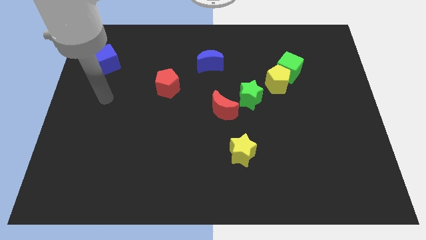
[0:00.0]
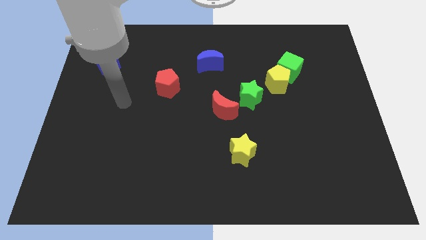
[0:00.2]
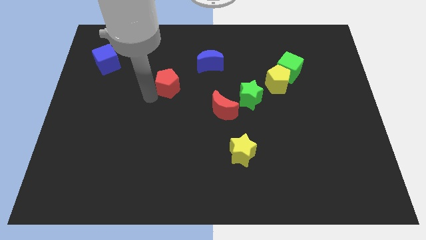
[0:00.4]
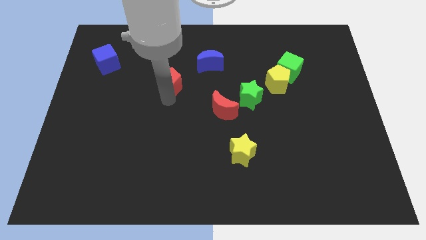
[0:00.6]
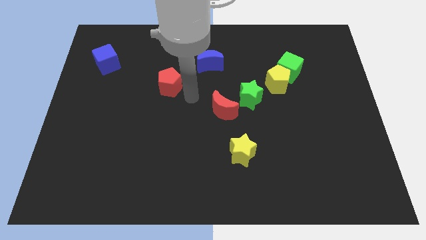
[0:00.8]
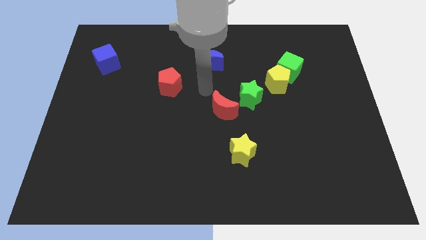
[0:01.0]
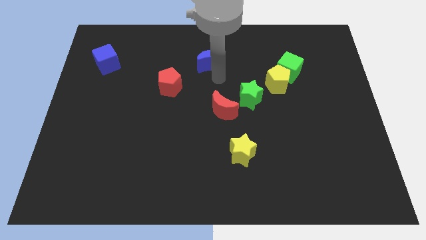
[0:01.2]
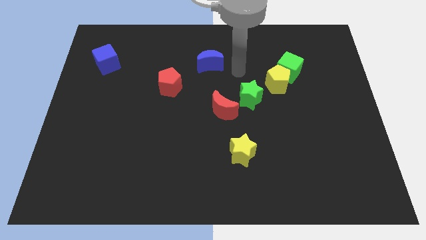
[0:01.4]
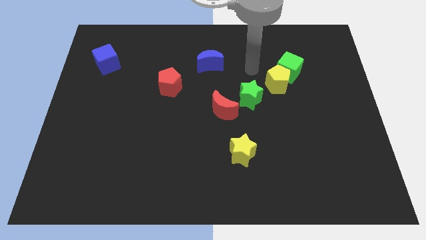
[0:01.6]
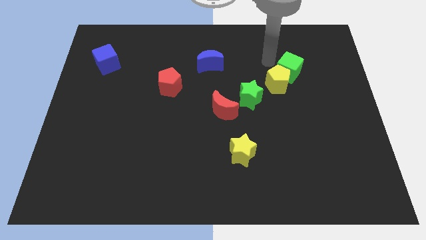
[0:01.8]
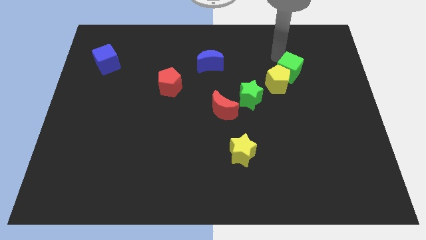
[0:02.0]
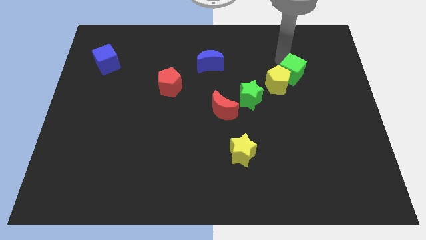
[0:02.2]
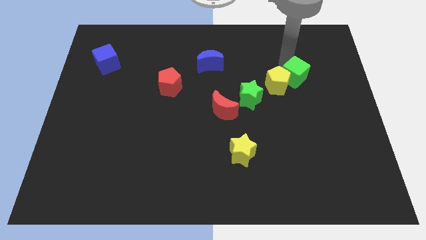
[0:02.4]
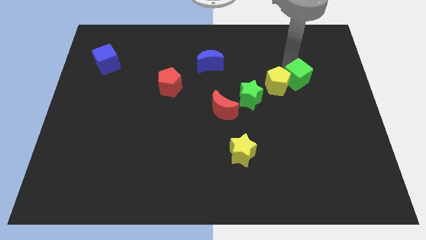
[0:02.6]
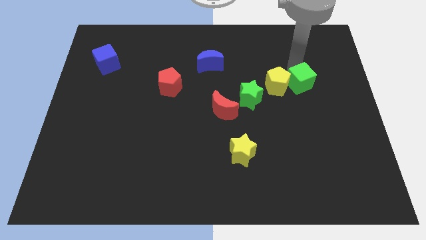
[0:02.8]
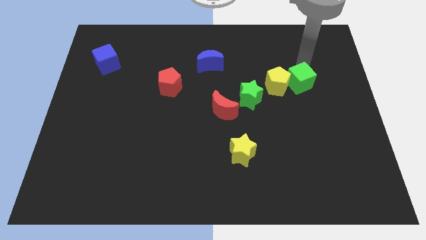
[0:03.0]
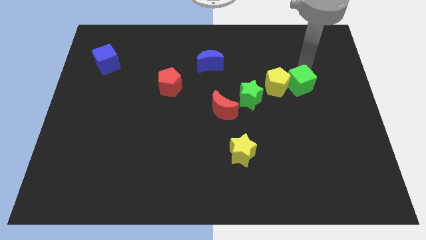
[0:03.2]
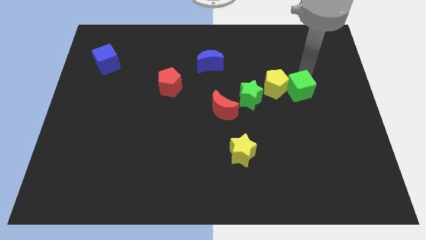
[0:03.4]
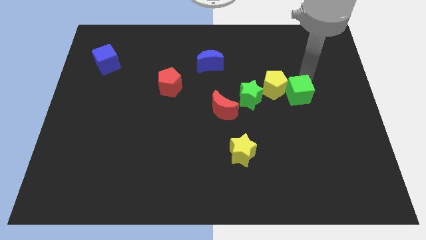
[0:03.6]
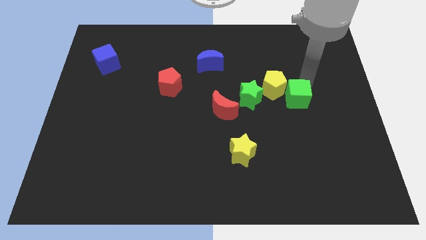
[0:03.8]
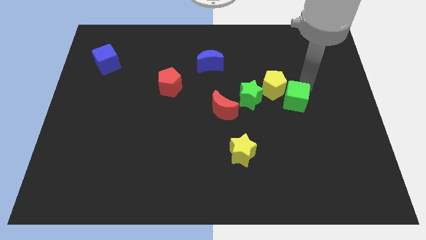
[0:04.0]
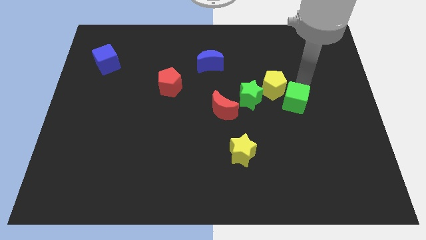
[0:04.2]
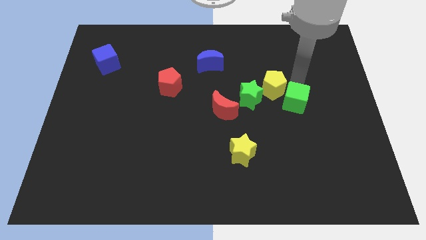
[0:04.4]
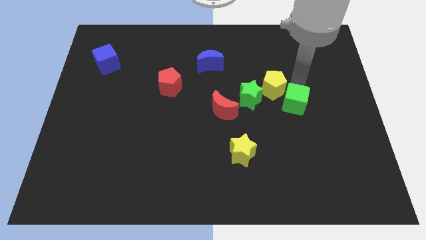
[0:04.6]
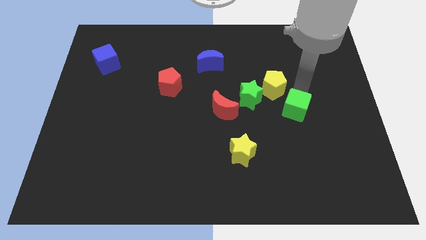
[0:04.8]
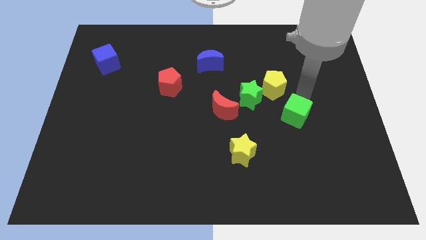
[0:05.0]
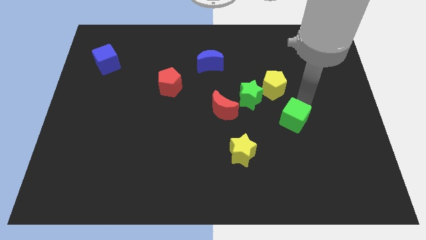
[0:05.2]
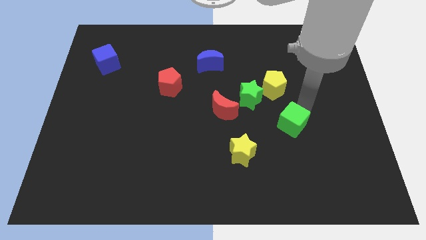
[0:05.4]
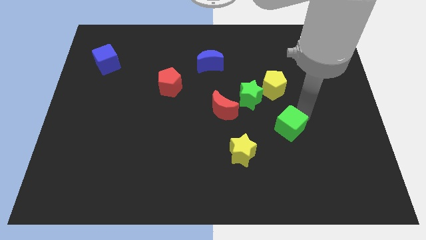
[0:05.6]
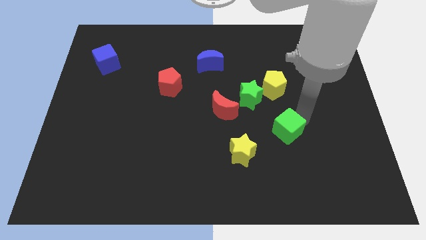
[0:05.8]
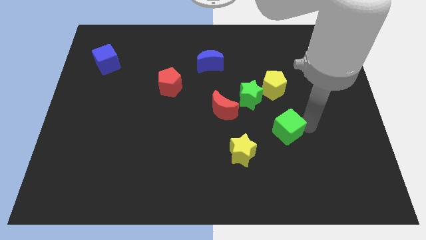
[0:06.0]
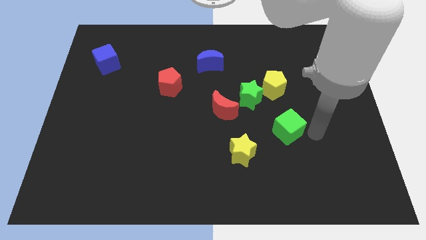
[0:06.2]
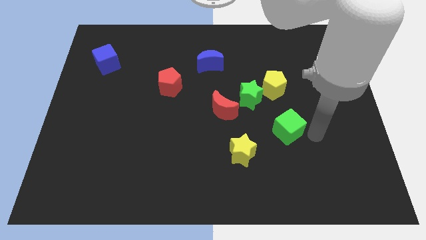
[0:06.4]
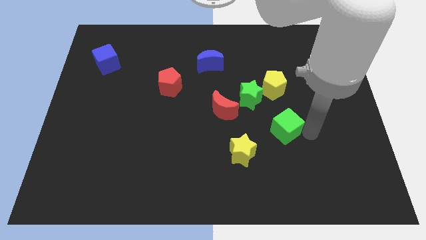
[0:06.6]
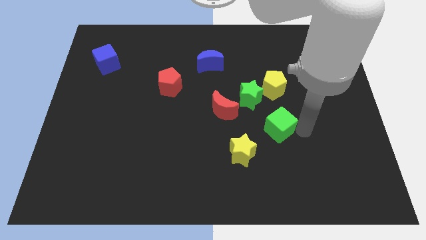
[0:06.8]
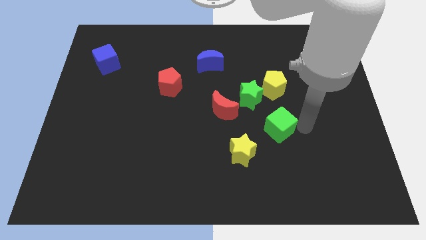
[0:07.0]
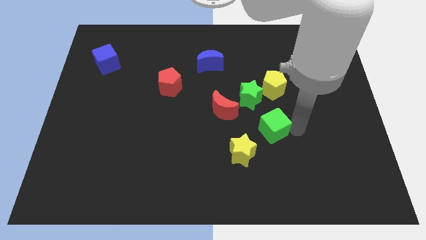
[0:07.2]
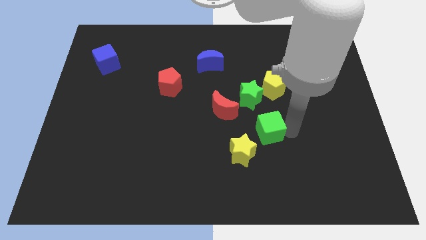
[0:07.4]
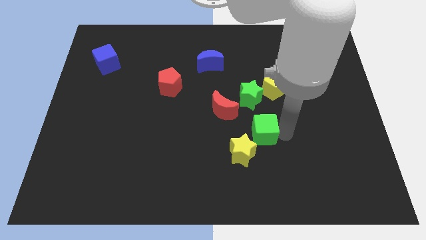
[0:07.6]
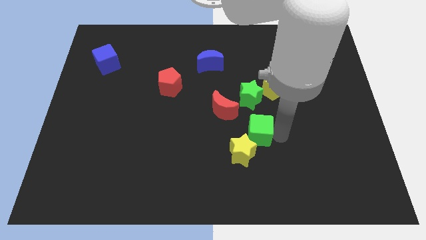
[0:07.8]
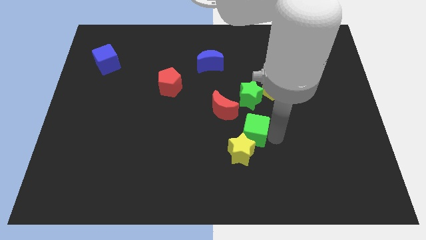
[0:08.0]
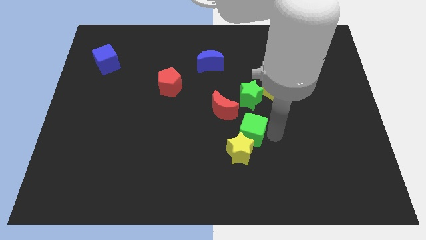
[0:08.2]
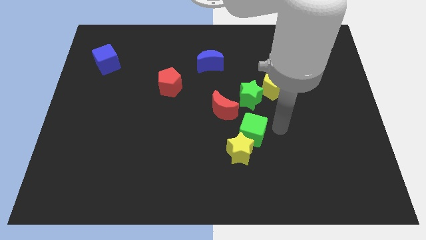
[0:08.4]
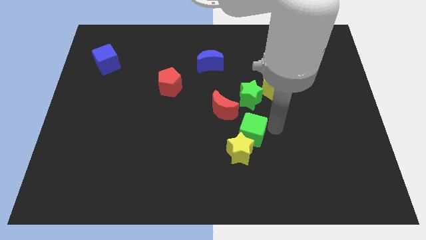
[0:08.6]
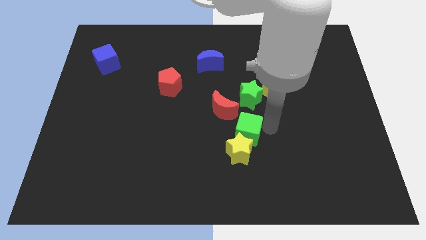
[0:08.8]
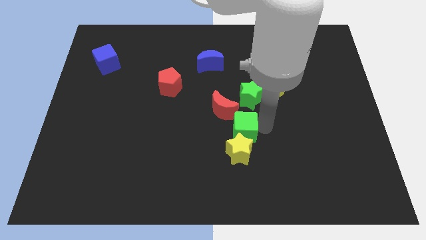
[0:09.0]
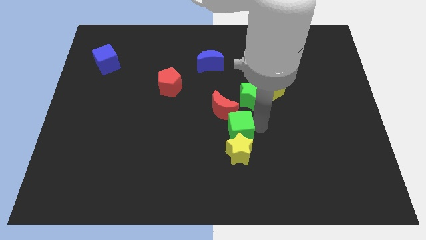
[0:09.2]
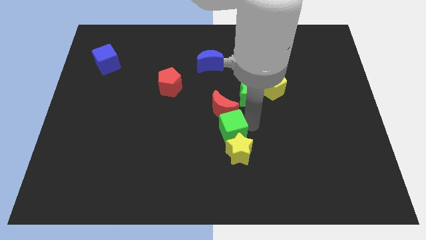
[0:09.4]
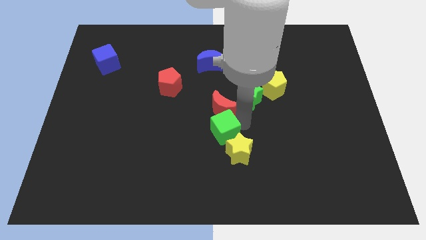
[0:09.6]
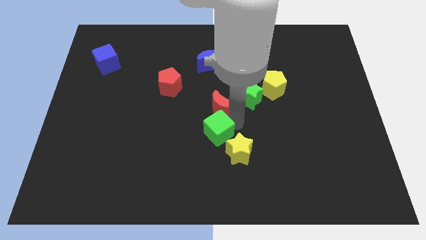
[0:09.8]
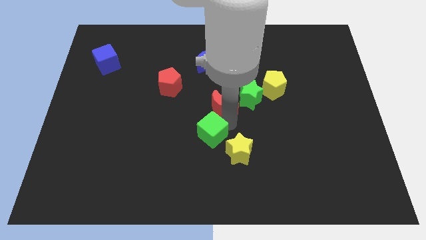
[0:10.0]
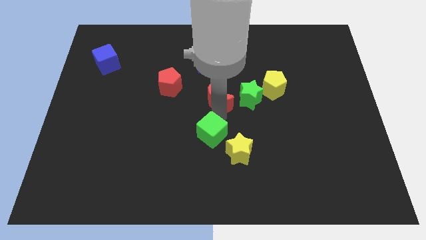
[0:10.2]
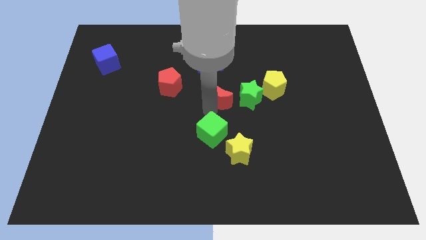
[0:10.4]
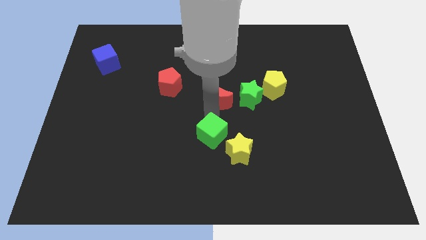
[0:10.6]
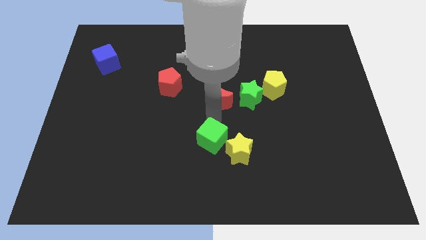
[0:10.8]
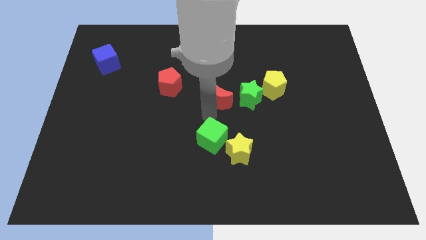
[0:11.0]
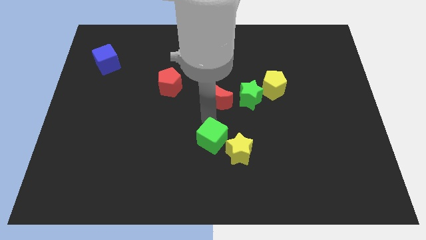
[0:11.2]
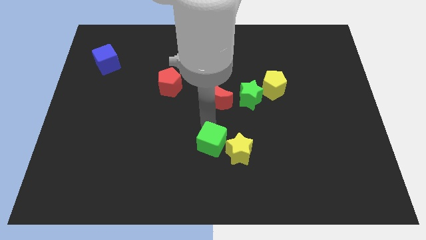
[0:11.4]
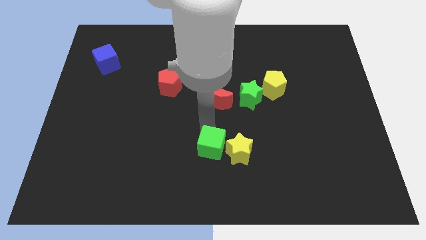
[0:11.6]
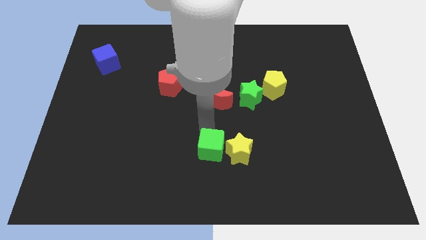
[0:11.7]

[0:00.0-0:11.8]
push the green cube to the bottom left side of the yellow star
